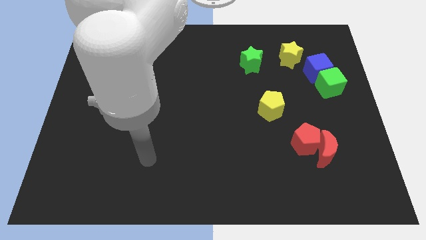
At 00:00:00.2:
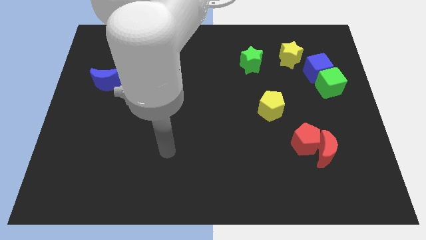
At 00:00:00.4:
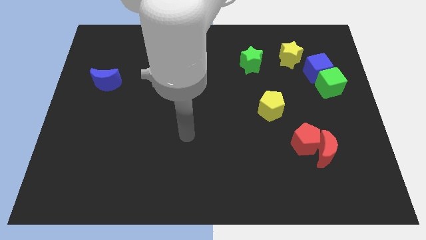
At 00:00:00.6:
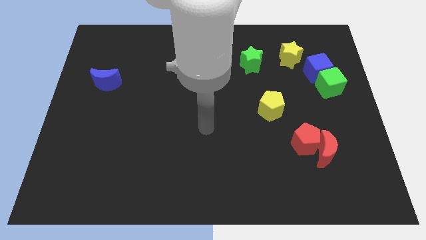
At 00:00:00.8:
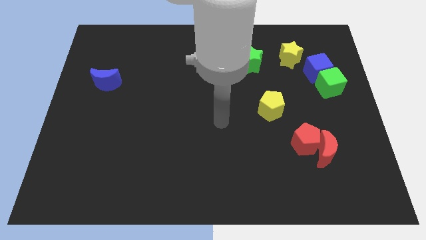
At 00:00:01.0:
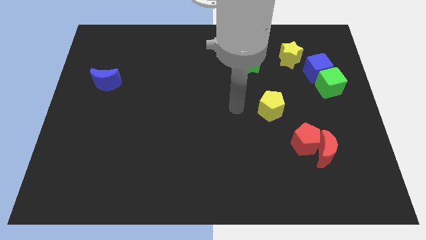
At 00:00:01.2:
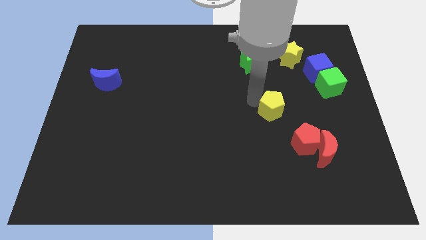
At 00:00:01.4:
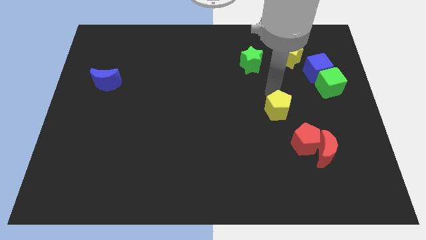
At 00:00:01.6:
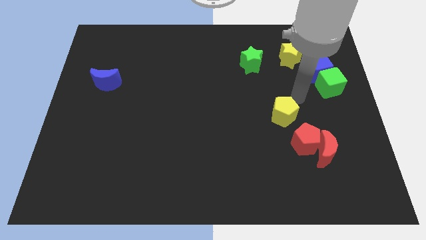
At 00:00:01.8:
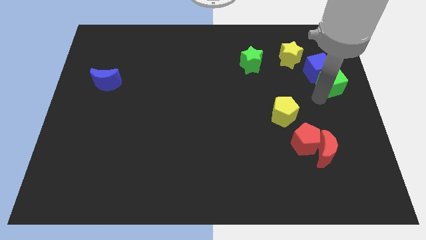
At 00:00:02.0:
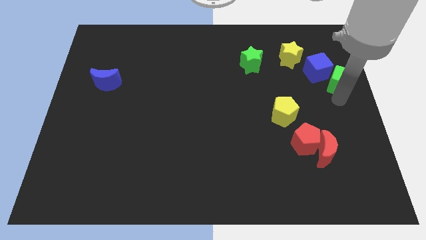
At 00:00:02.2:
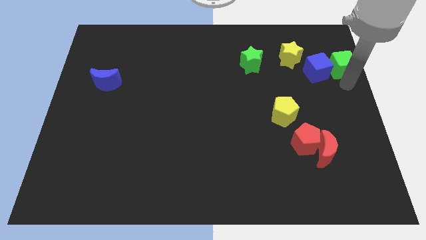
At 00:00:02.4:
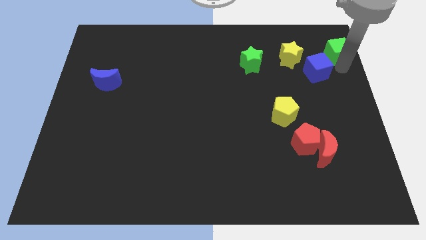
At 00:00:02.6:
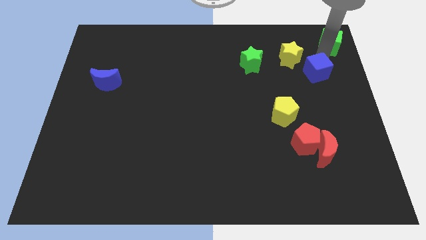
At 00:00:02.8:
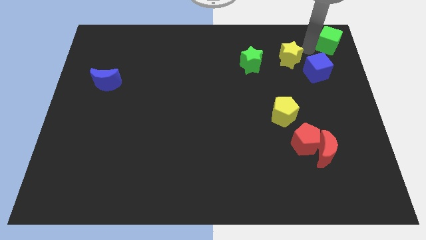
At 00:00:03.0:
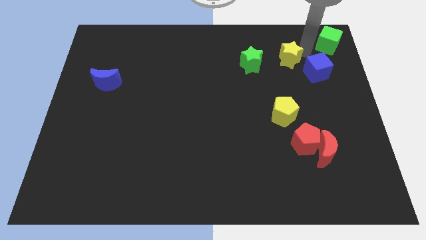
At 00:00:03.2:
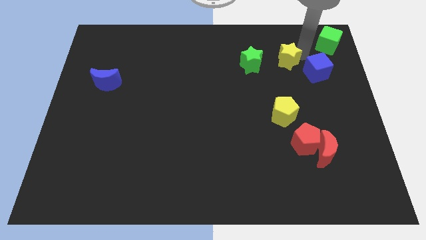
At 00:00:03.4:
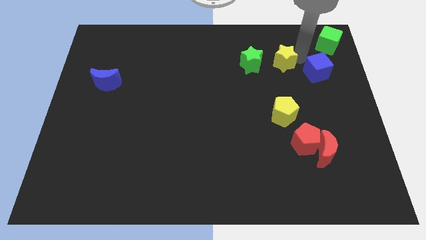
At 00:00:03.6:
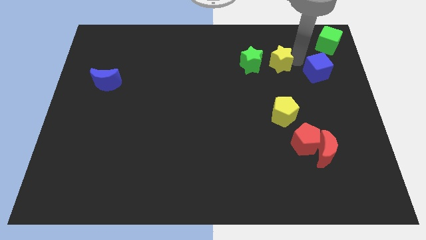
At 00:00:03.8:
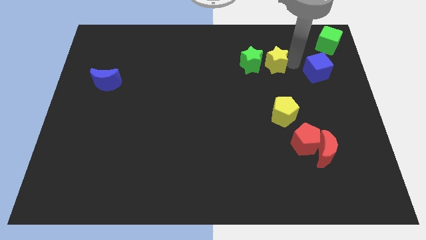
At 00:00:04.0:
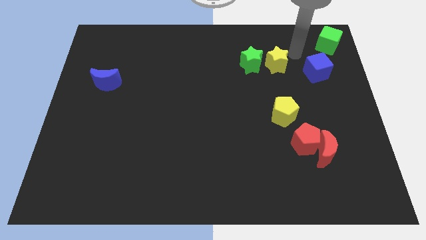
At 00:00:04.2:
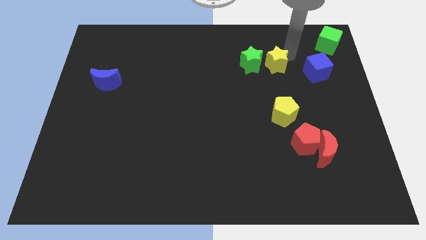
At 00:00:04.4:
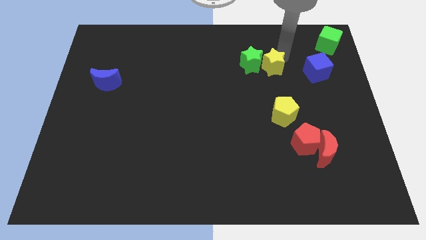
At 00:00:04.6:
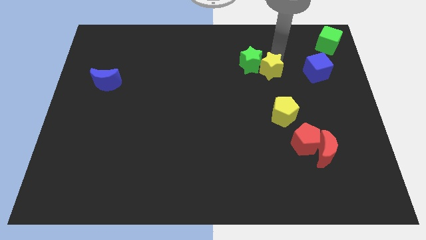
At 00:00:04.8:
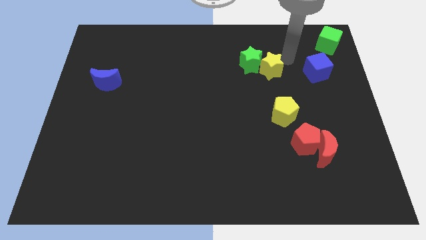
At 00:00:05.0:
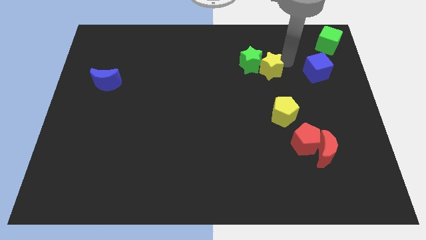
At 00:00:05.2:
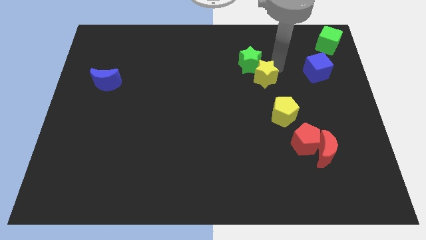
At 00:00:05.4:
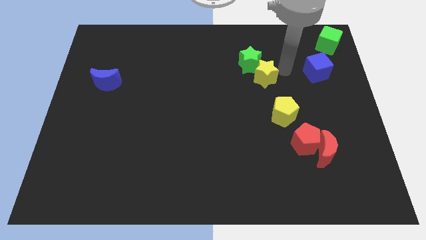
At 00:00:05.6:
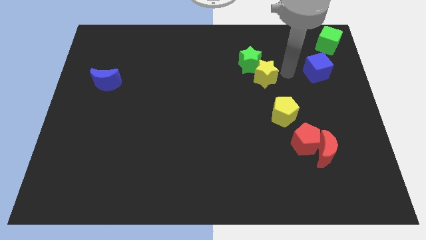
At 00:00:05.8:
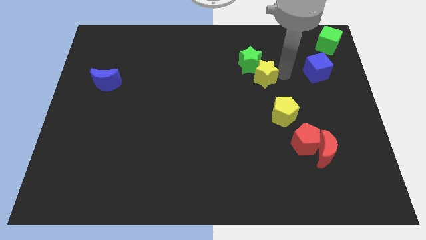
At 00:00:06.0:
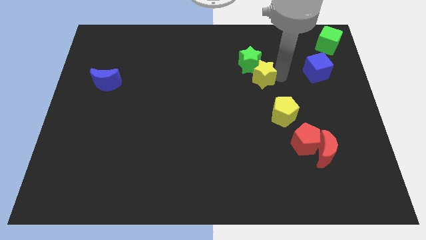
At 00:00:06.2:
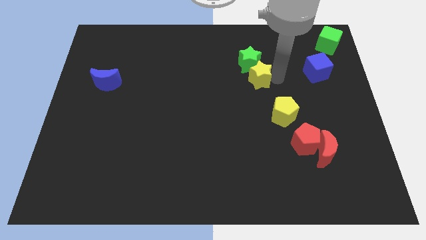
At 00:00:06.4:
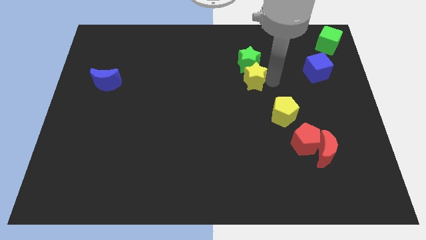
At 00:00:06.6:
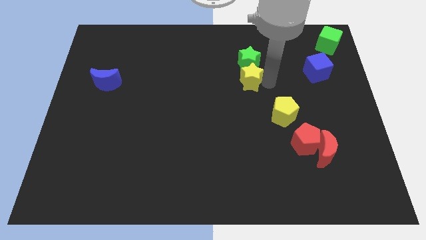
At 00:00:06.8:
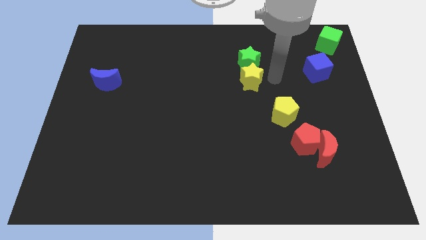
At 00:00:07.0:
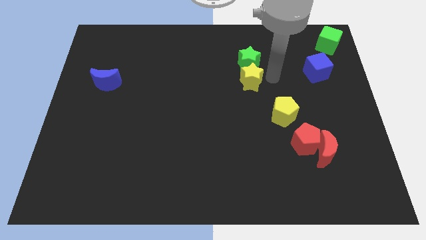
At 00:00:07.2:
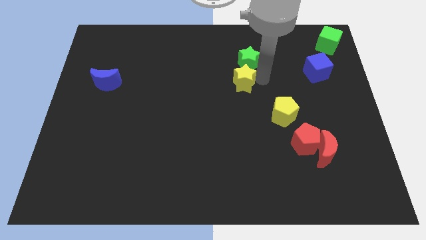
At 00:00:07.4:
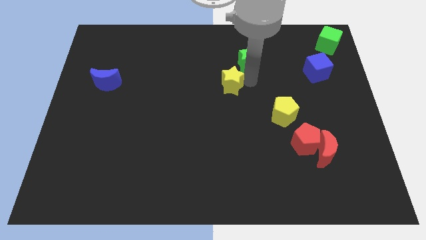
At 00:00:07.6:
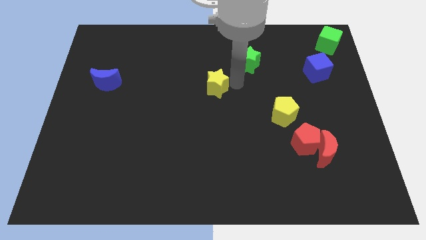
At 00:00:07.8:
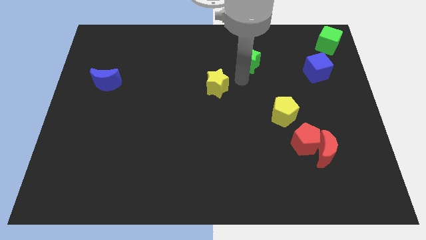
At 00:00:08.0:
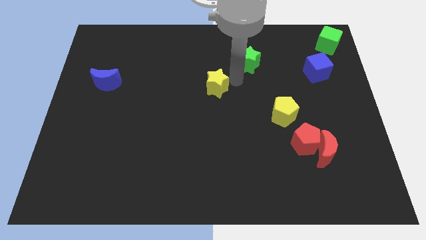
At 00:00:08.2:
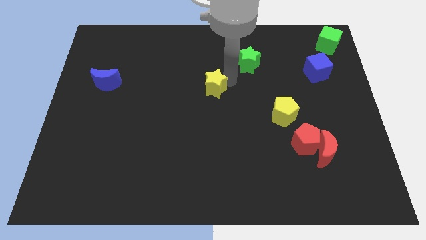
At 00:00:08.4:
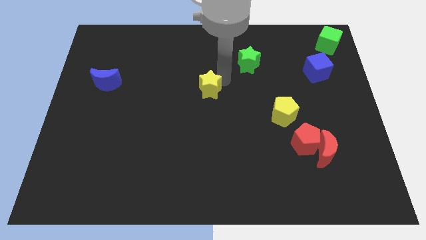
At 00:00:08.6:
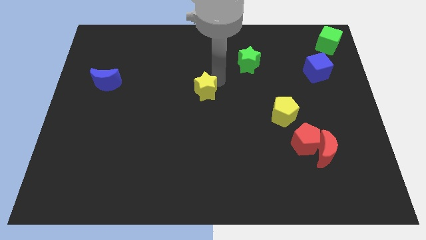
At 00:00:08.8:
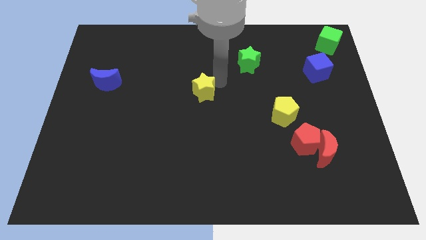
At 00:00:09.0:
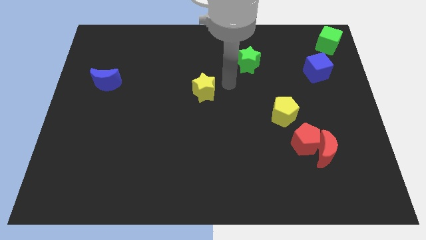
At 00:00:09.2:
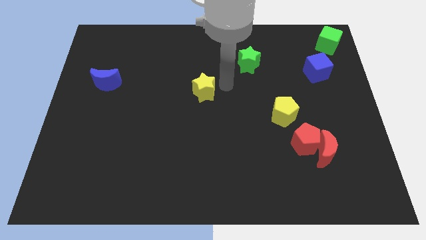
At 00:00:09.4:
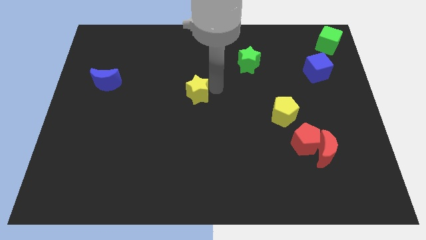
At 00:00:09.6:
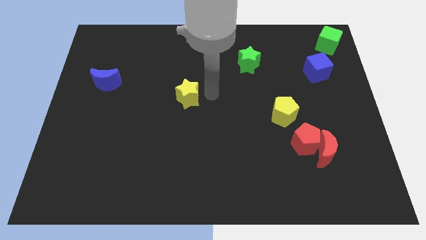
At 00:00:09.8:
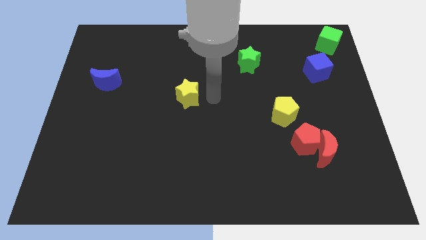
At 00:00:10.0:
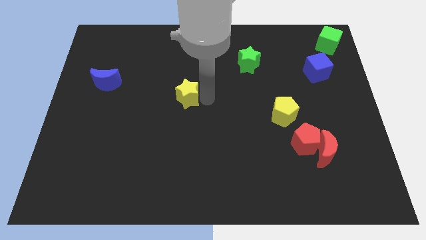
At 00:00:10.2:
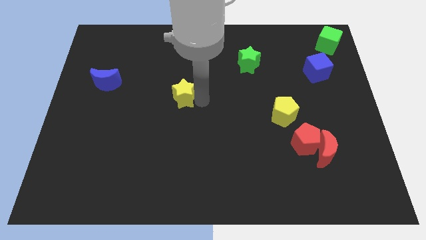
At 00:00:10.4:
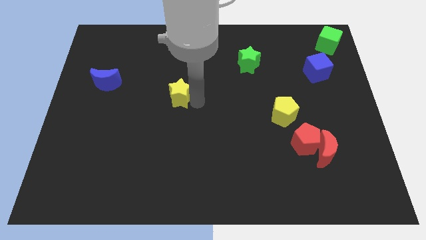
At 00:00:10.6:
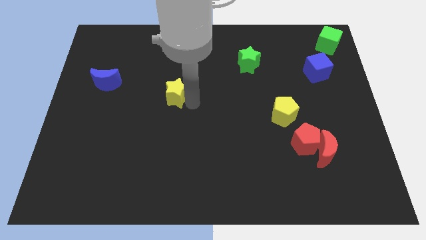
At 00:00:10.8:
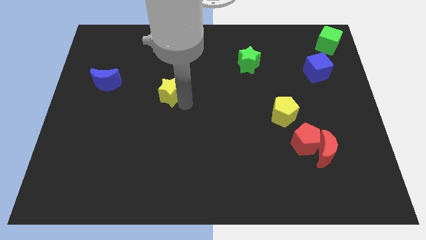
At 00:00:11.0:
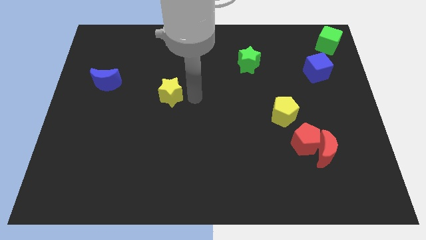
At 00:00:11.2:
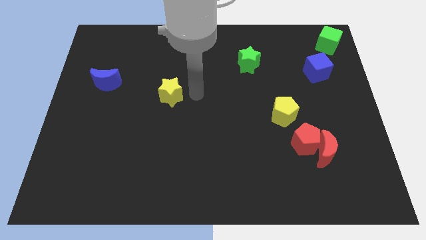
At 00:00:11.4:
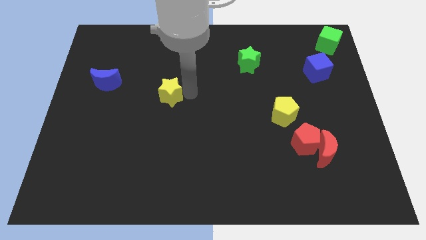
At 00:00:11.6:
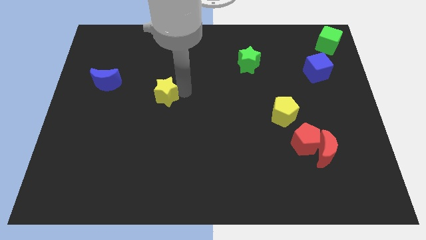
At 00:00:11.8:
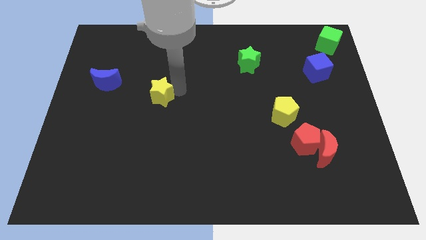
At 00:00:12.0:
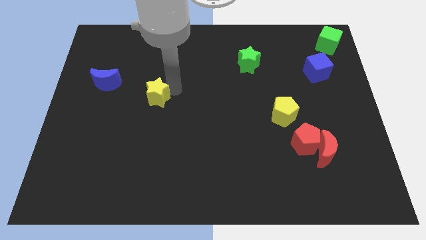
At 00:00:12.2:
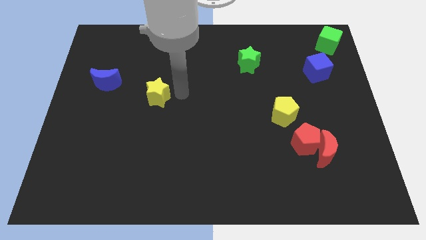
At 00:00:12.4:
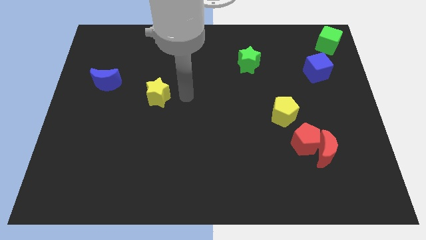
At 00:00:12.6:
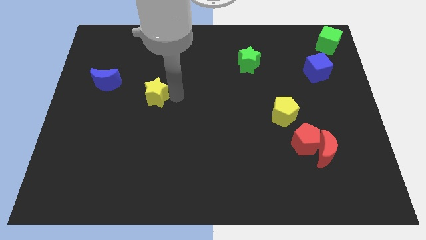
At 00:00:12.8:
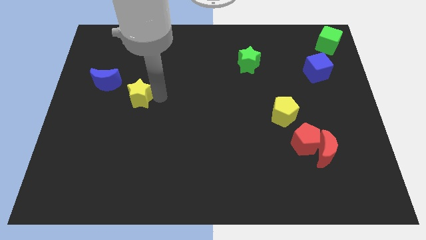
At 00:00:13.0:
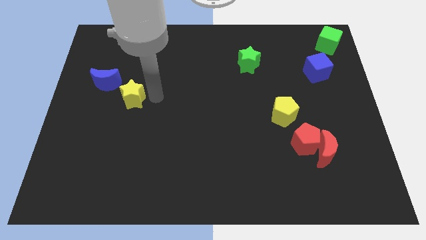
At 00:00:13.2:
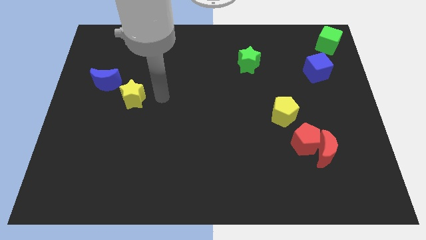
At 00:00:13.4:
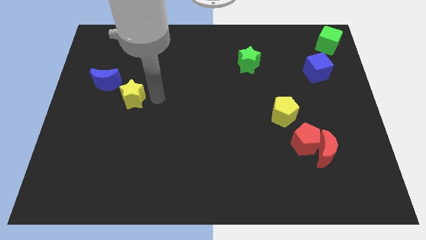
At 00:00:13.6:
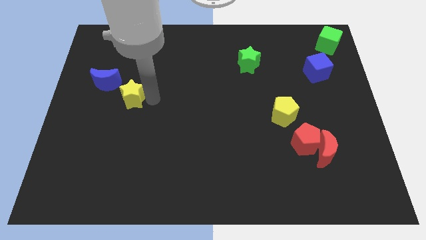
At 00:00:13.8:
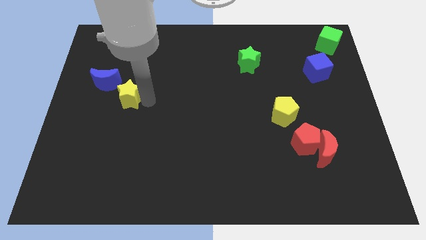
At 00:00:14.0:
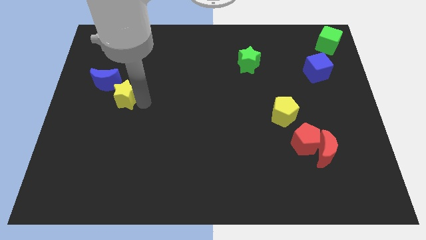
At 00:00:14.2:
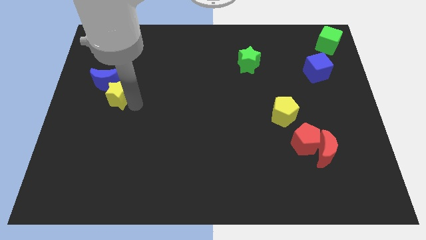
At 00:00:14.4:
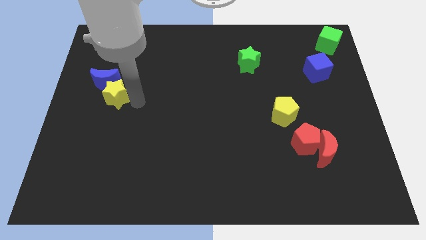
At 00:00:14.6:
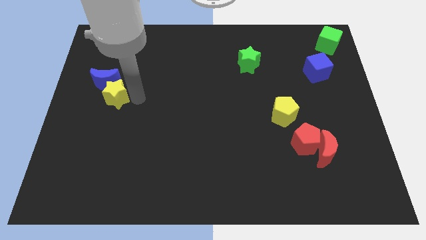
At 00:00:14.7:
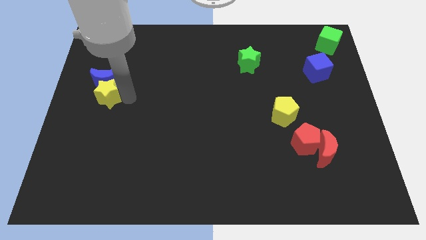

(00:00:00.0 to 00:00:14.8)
put the yellow star to the center left
